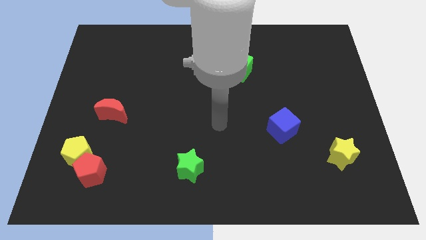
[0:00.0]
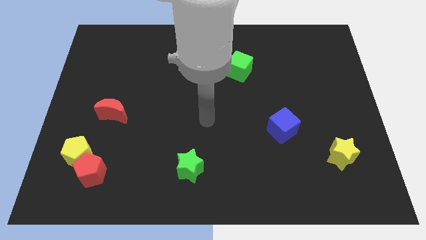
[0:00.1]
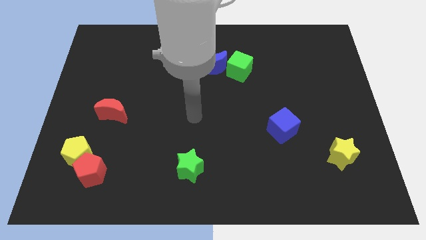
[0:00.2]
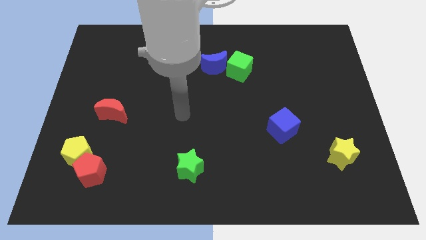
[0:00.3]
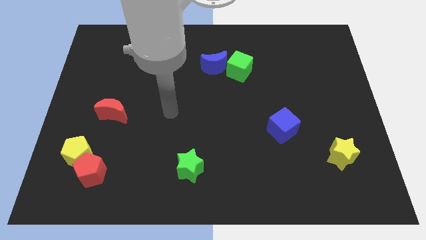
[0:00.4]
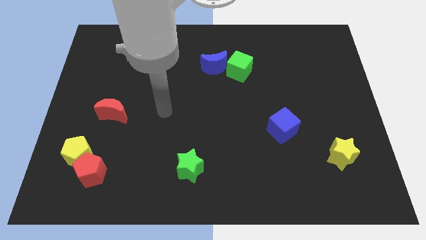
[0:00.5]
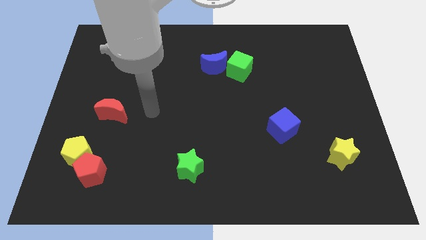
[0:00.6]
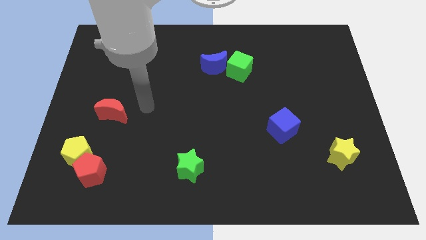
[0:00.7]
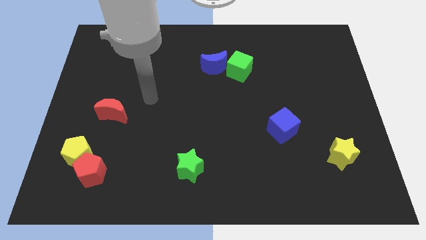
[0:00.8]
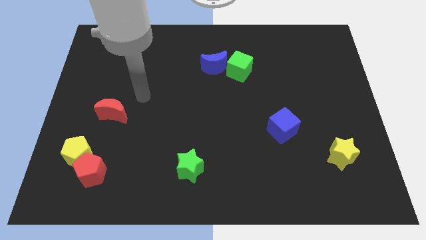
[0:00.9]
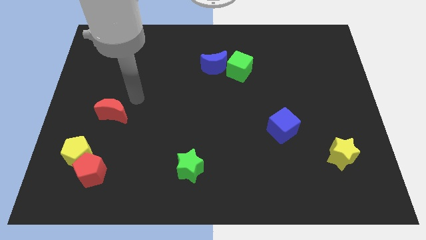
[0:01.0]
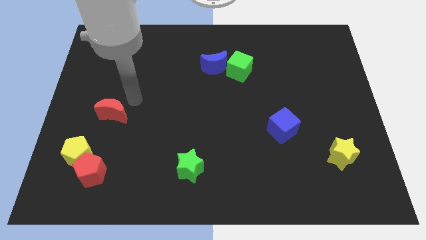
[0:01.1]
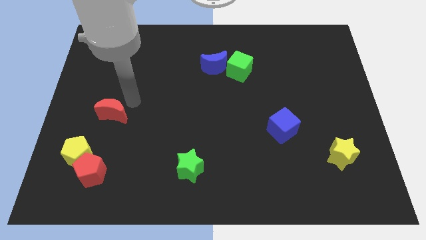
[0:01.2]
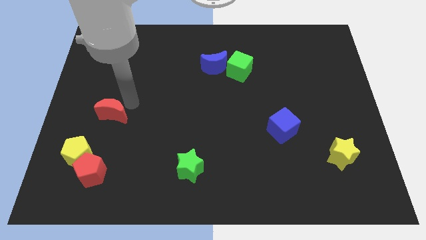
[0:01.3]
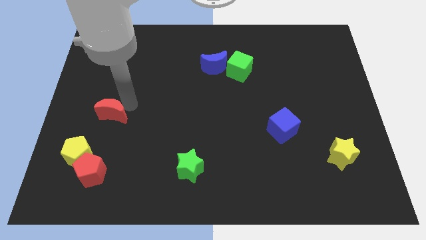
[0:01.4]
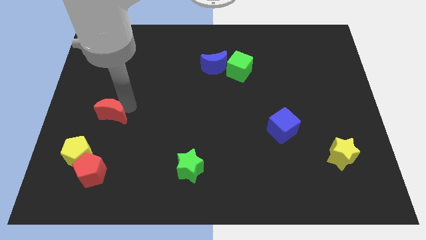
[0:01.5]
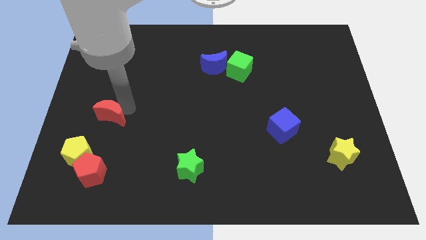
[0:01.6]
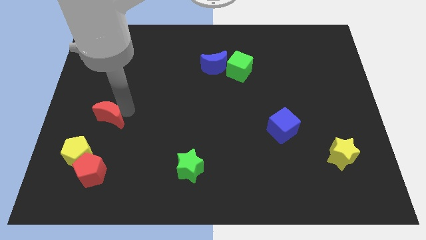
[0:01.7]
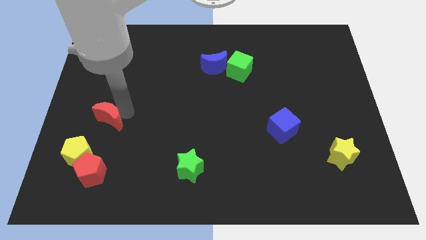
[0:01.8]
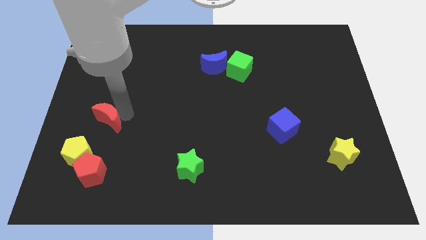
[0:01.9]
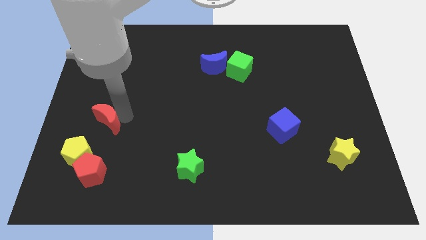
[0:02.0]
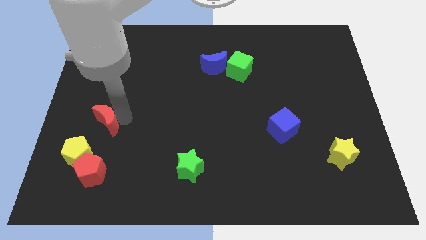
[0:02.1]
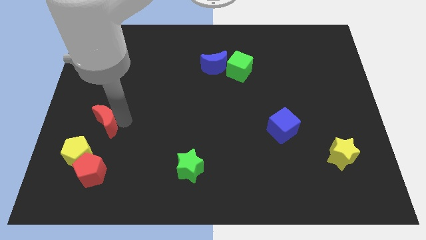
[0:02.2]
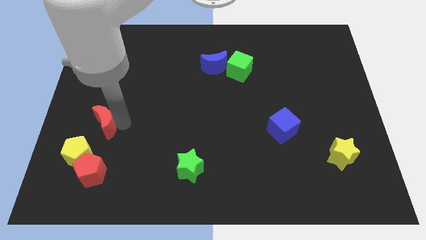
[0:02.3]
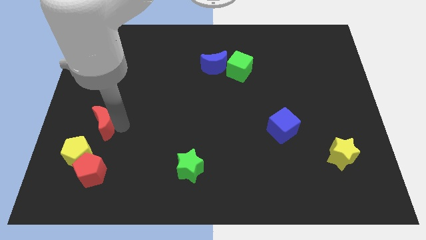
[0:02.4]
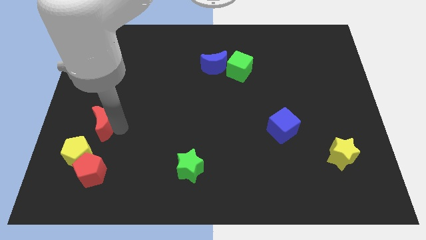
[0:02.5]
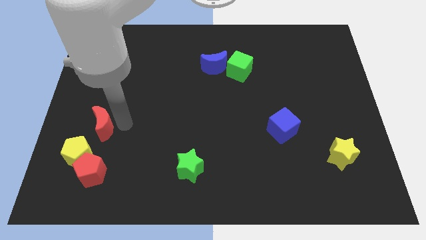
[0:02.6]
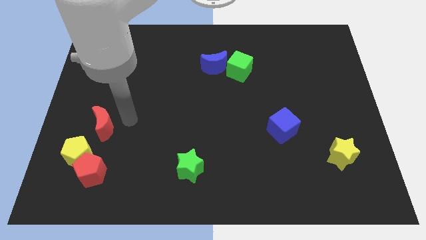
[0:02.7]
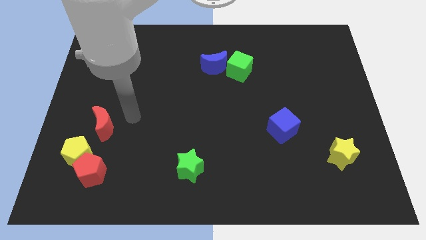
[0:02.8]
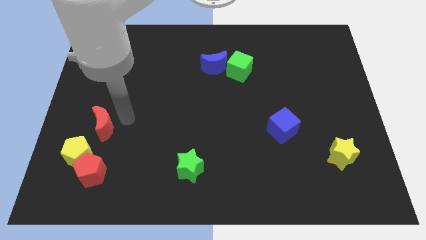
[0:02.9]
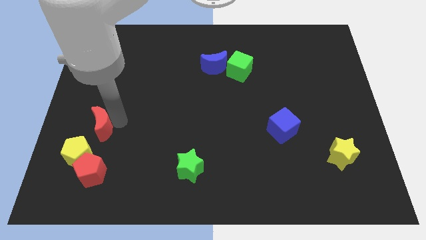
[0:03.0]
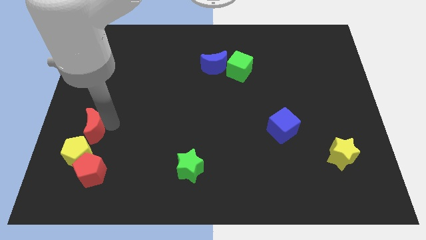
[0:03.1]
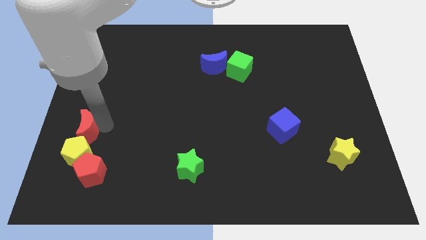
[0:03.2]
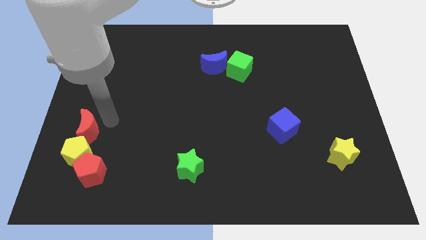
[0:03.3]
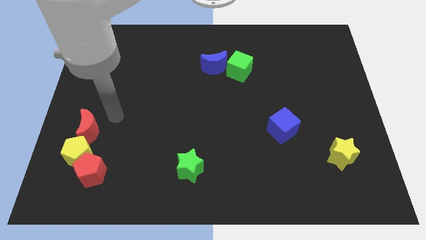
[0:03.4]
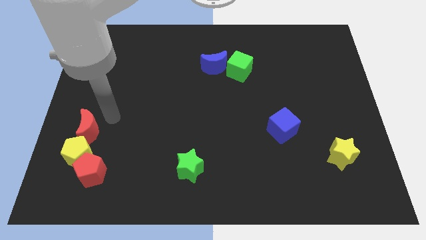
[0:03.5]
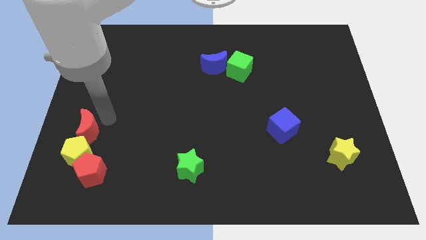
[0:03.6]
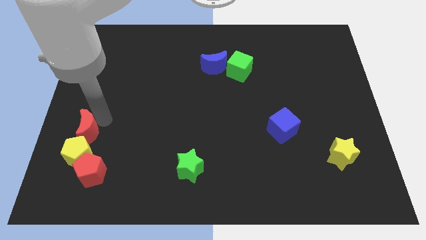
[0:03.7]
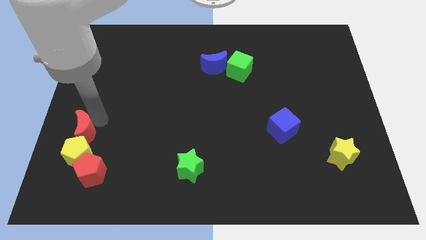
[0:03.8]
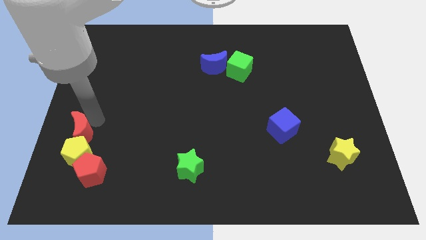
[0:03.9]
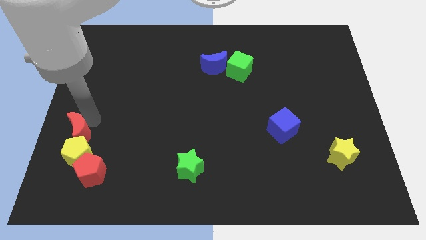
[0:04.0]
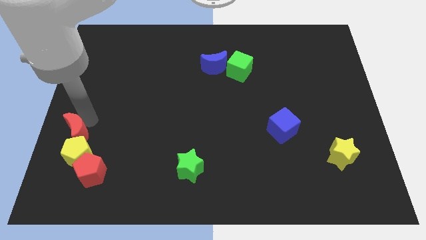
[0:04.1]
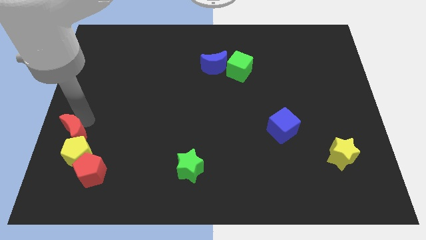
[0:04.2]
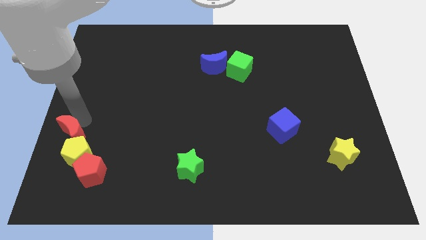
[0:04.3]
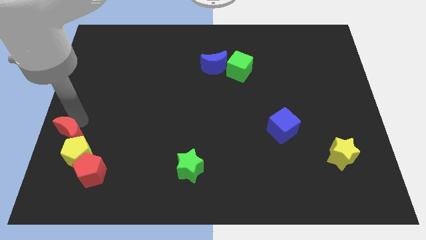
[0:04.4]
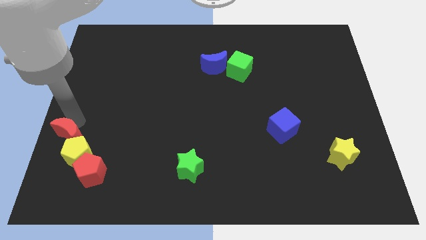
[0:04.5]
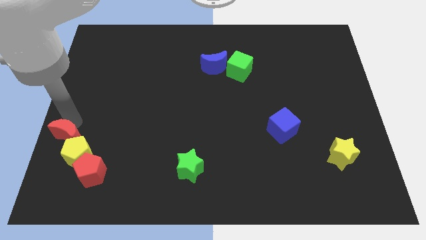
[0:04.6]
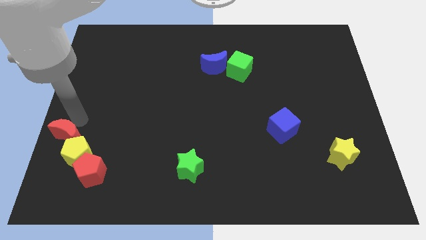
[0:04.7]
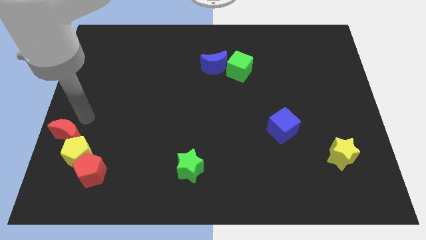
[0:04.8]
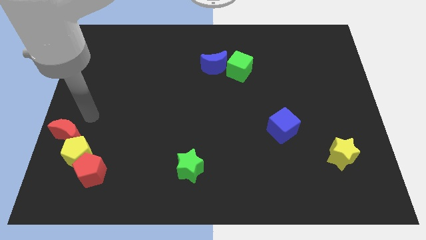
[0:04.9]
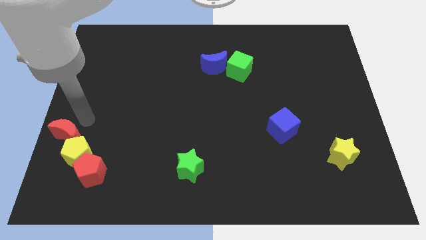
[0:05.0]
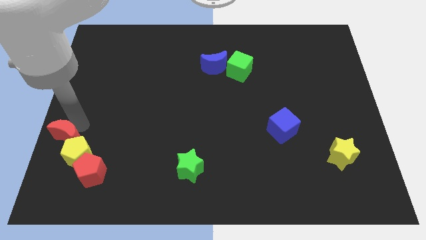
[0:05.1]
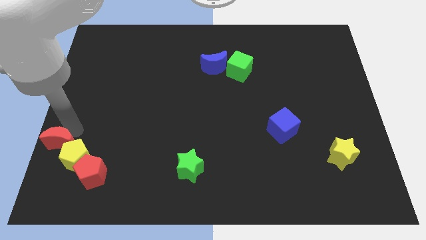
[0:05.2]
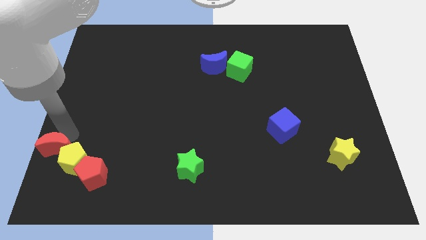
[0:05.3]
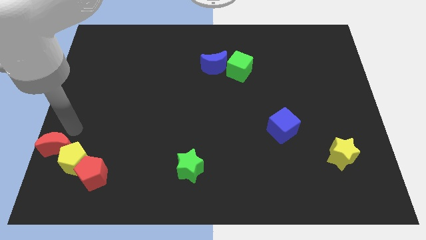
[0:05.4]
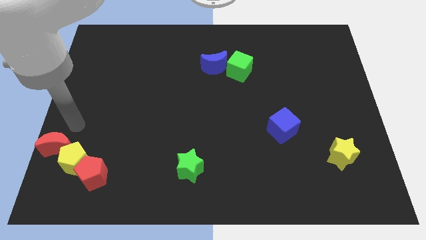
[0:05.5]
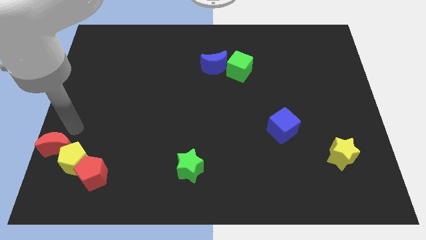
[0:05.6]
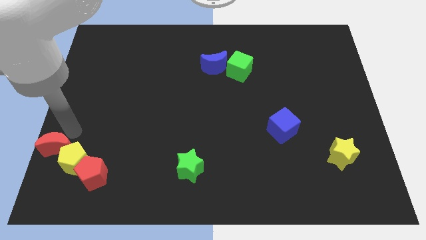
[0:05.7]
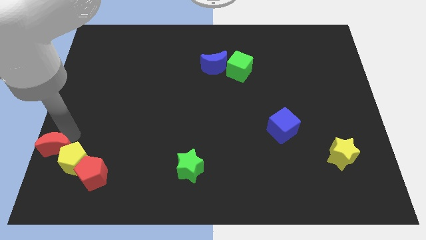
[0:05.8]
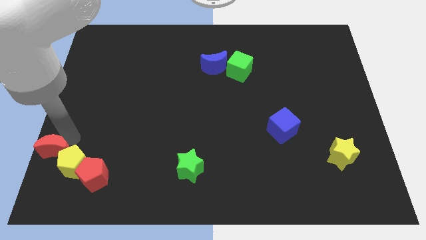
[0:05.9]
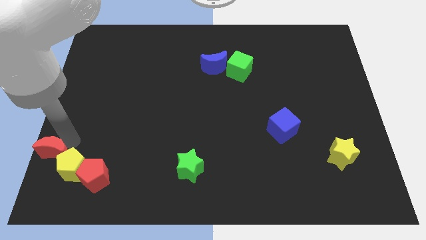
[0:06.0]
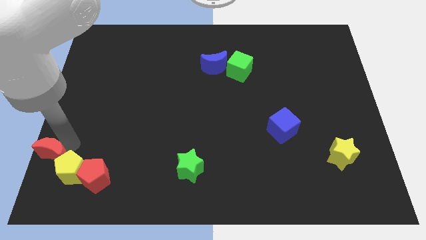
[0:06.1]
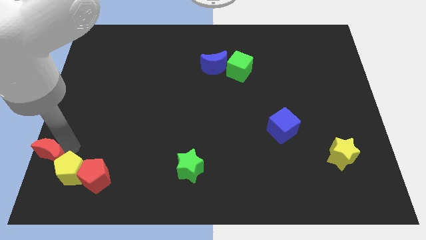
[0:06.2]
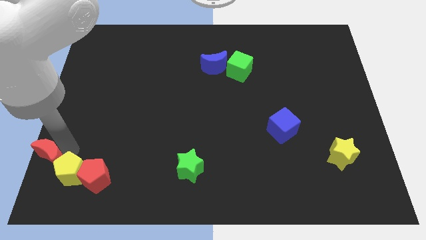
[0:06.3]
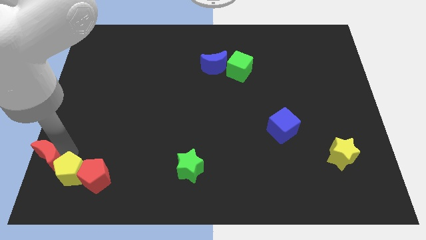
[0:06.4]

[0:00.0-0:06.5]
put the red moon to the bottom left
